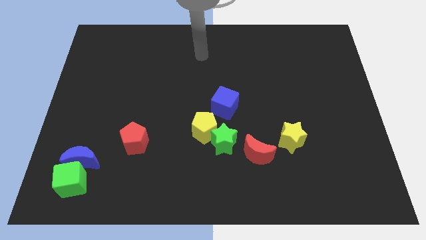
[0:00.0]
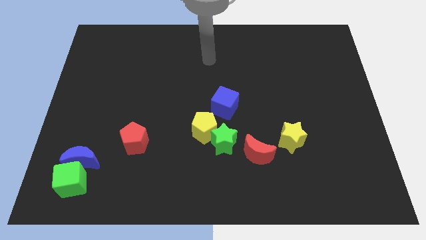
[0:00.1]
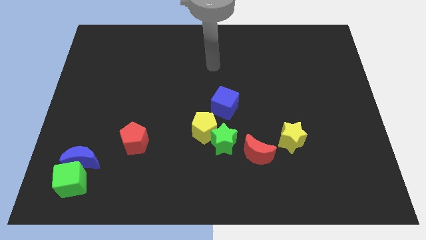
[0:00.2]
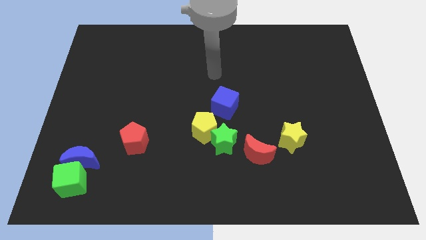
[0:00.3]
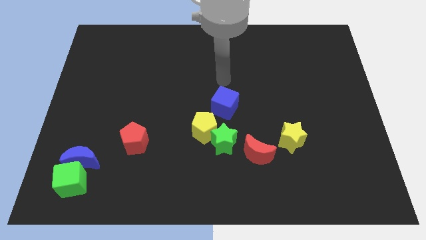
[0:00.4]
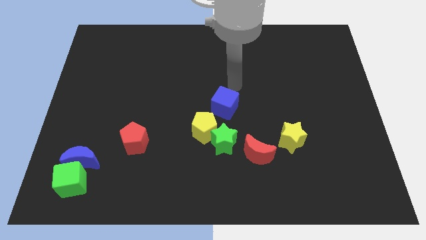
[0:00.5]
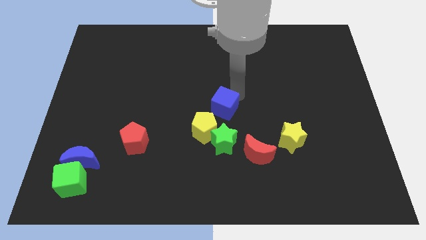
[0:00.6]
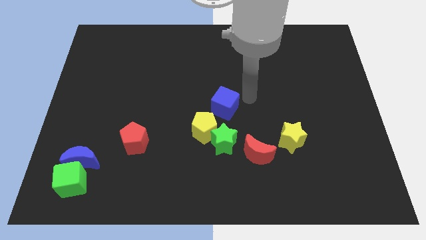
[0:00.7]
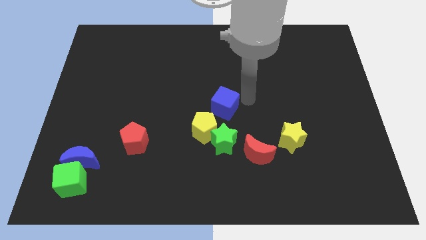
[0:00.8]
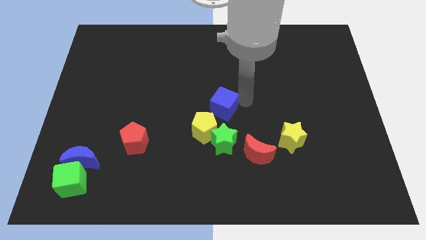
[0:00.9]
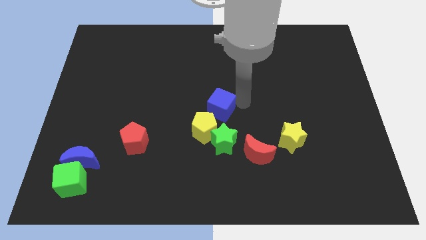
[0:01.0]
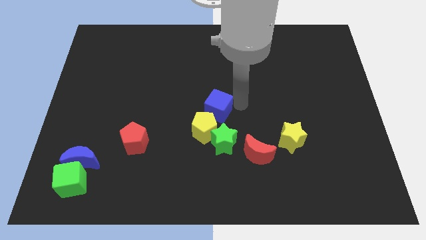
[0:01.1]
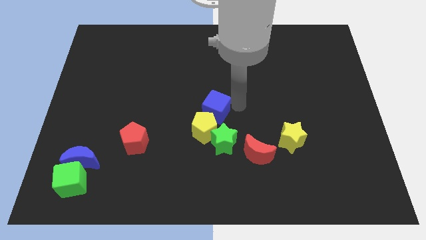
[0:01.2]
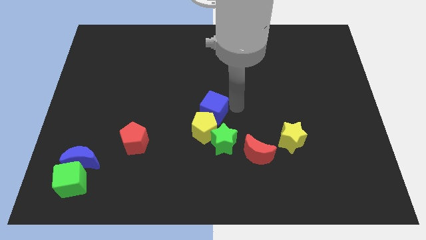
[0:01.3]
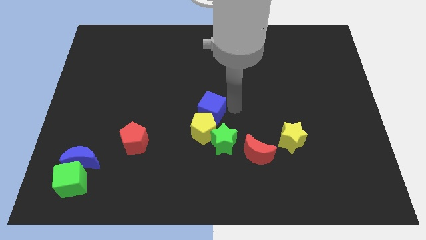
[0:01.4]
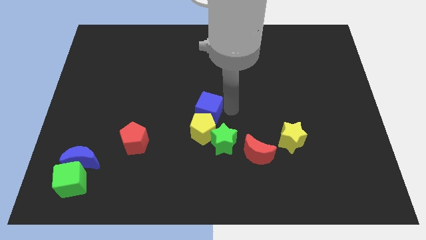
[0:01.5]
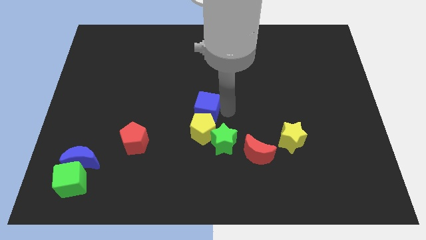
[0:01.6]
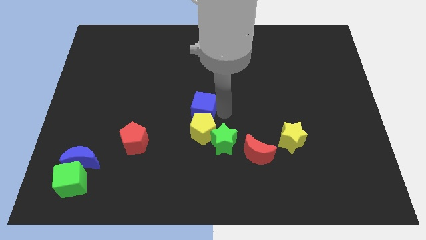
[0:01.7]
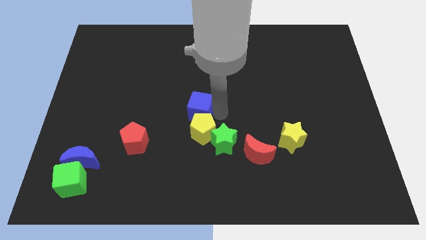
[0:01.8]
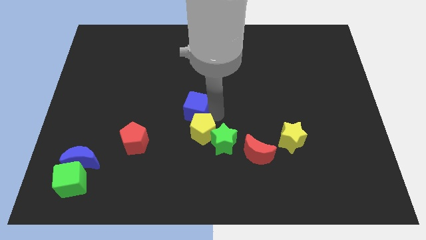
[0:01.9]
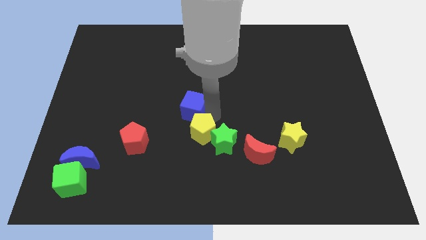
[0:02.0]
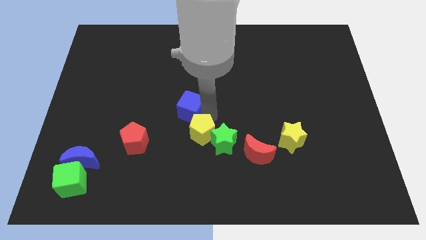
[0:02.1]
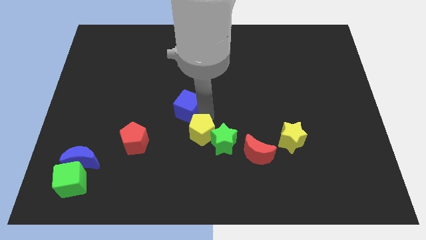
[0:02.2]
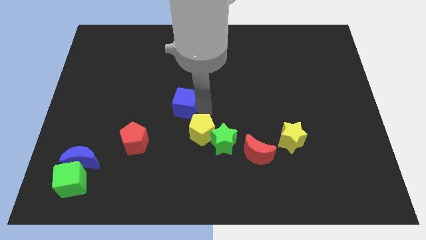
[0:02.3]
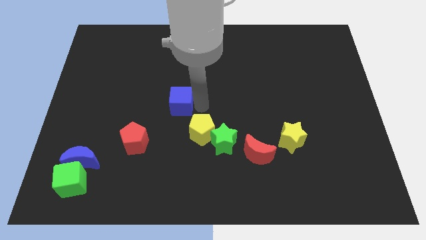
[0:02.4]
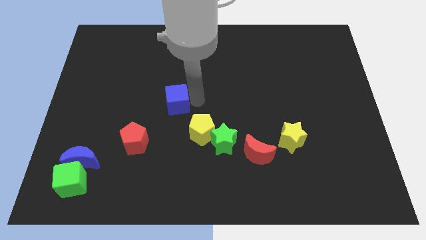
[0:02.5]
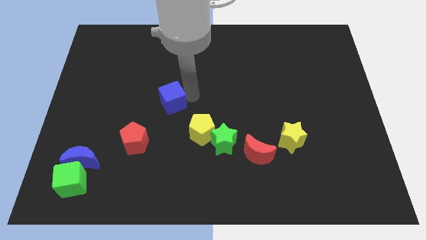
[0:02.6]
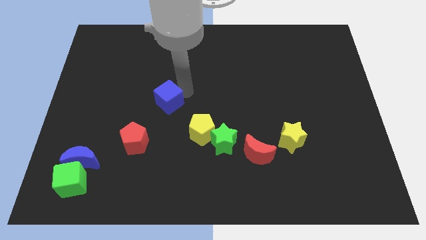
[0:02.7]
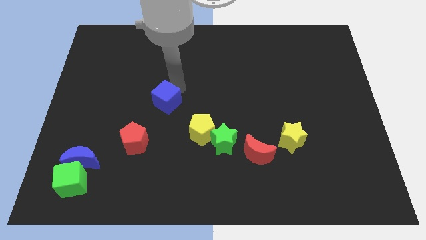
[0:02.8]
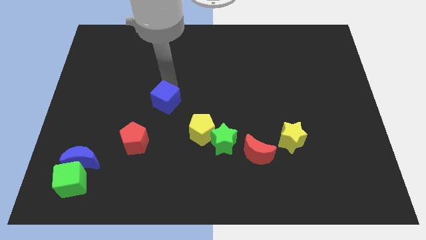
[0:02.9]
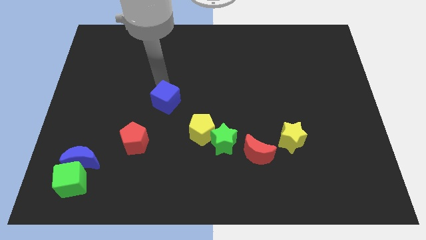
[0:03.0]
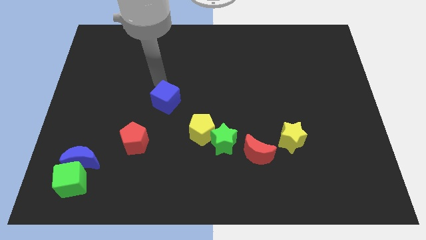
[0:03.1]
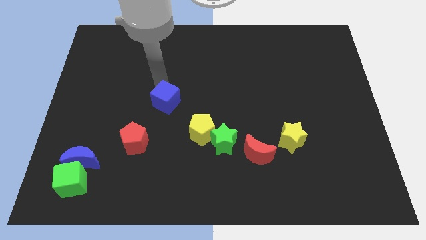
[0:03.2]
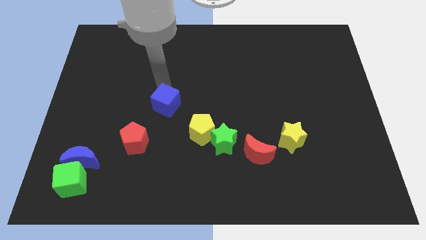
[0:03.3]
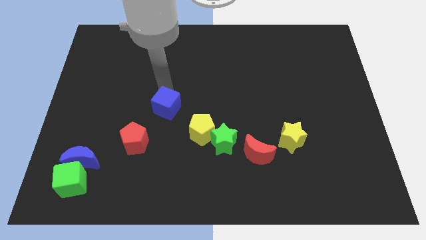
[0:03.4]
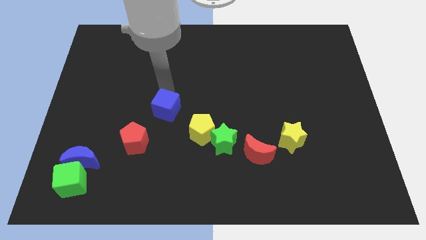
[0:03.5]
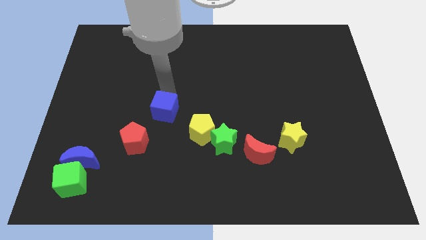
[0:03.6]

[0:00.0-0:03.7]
slightly push the blue cube down and then to the left

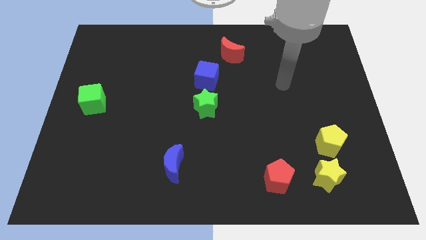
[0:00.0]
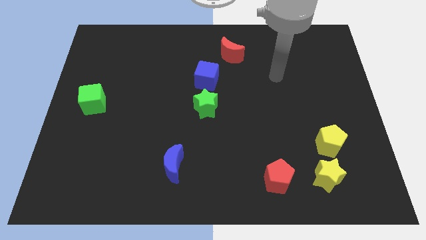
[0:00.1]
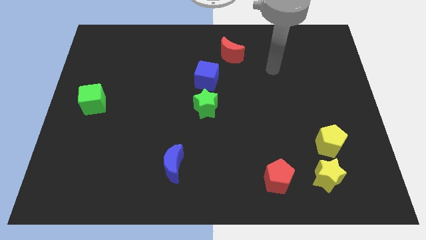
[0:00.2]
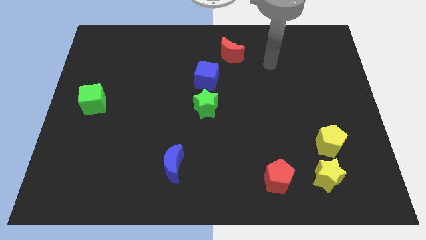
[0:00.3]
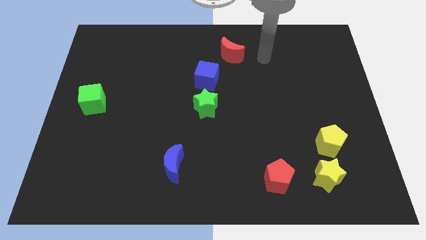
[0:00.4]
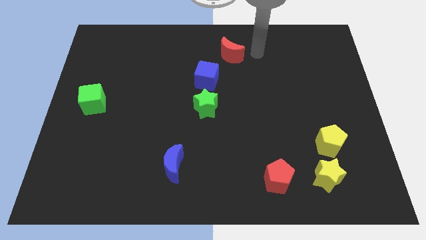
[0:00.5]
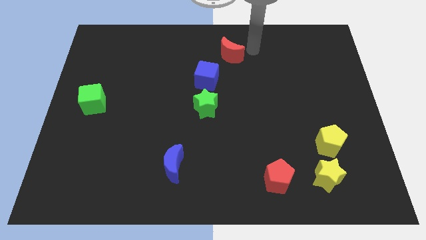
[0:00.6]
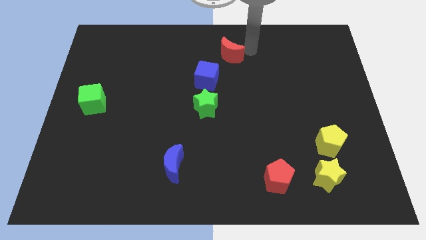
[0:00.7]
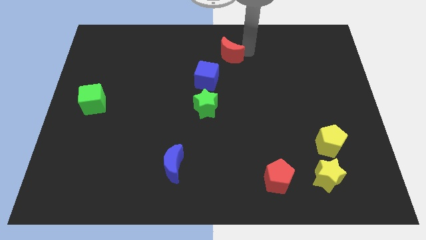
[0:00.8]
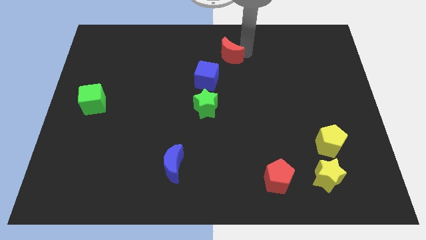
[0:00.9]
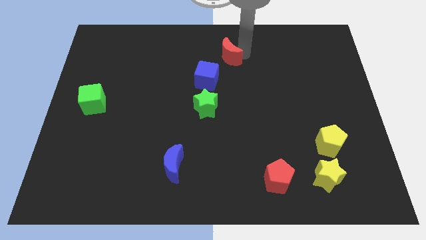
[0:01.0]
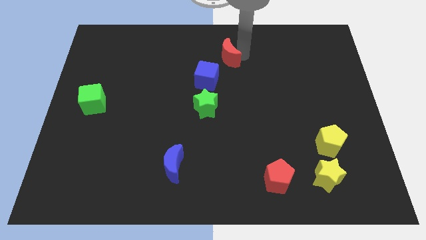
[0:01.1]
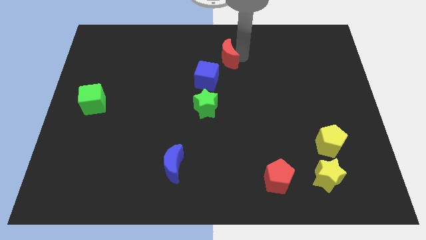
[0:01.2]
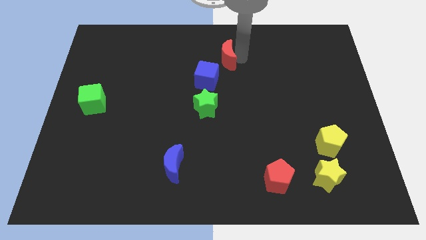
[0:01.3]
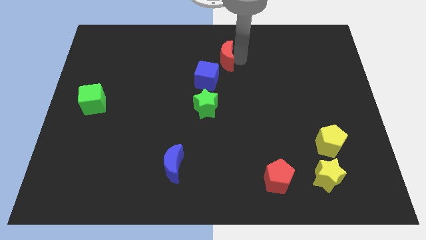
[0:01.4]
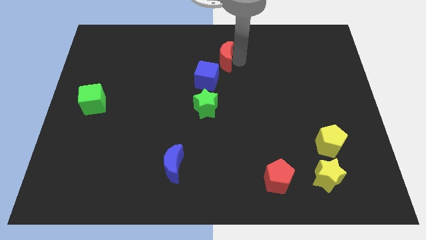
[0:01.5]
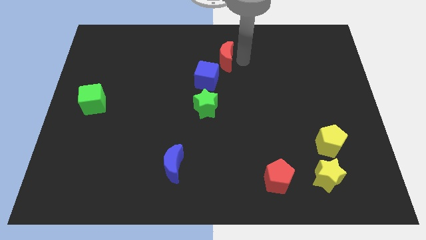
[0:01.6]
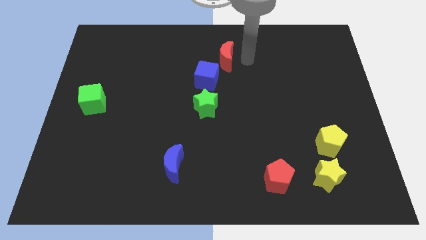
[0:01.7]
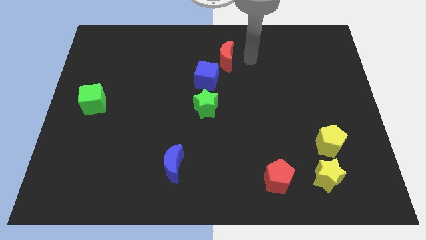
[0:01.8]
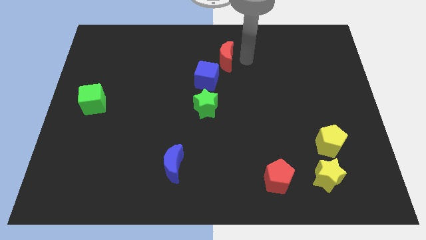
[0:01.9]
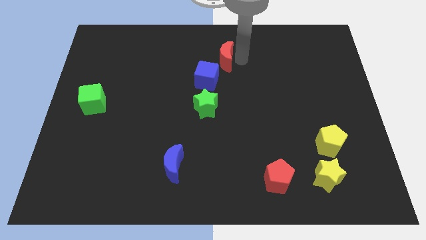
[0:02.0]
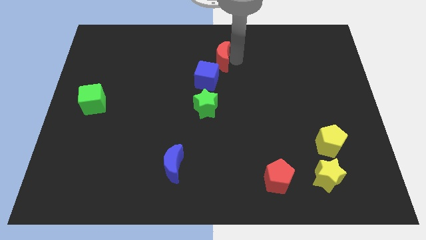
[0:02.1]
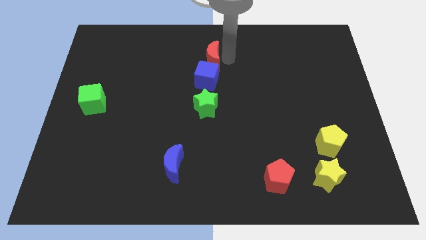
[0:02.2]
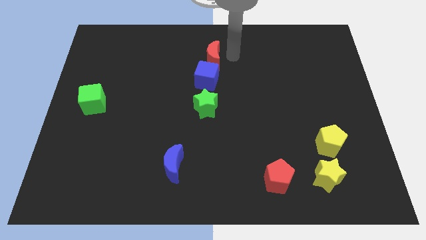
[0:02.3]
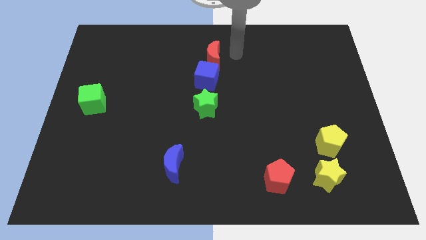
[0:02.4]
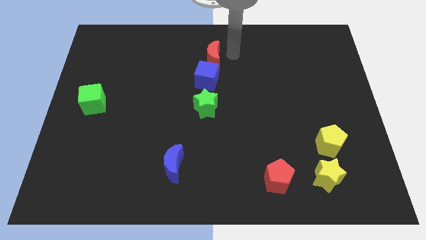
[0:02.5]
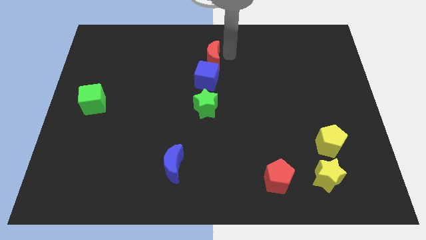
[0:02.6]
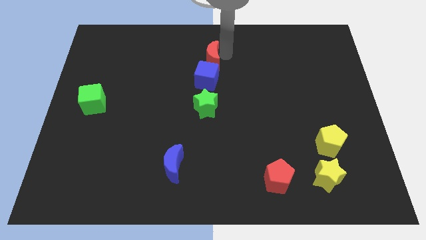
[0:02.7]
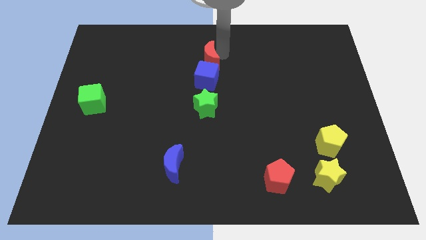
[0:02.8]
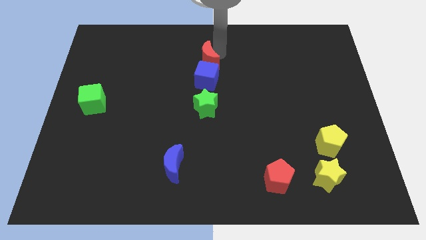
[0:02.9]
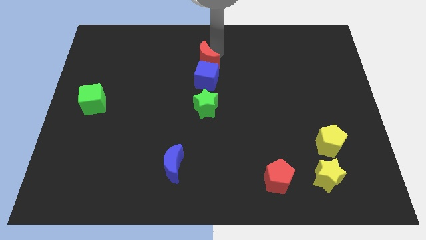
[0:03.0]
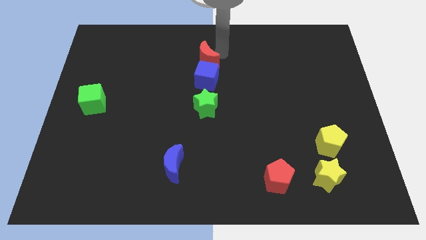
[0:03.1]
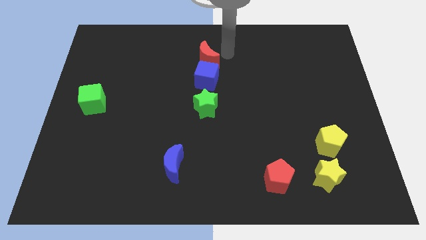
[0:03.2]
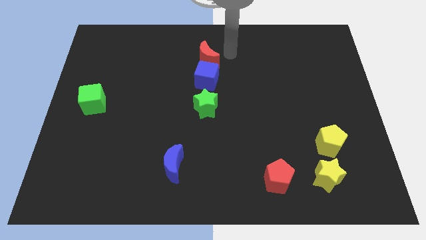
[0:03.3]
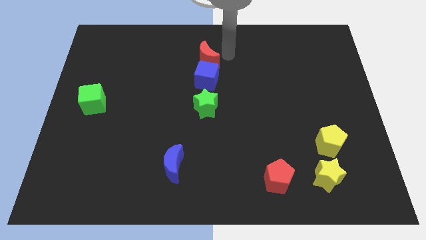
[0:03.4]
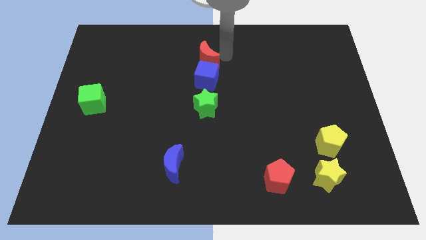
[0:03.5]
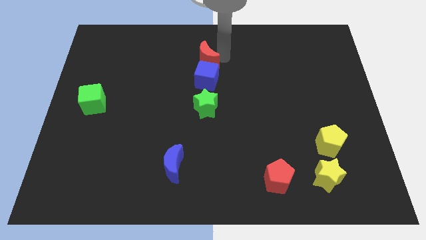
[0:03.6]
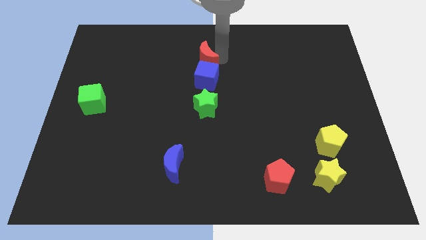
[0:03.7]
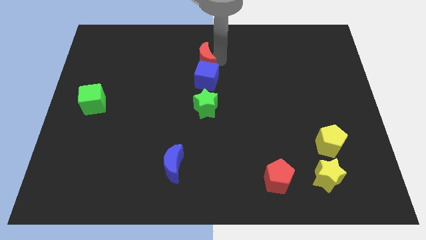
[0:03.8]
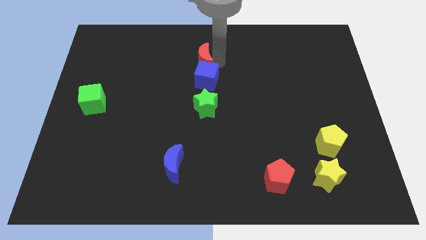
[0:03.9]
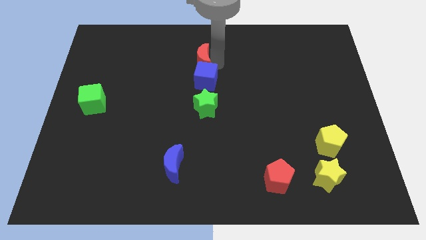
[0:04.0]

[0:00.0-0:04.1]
slide the red moon down and then to the left somewhat
